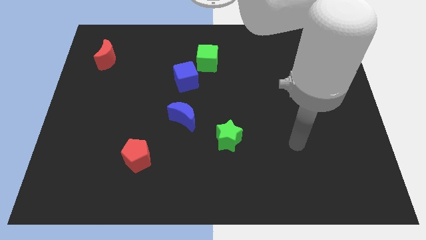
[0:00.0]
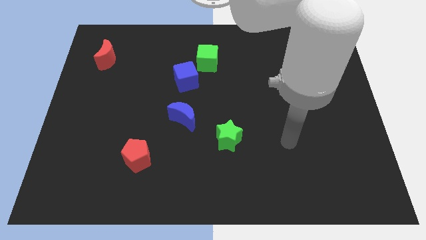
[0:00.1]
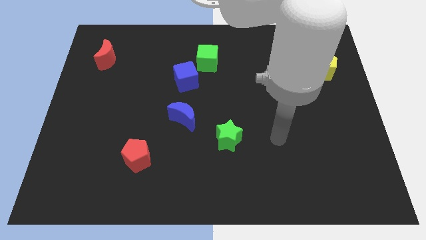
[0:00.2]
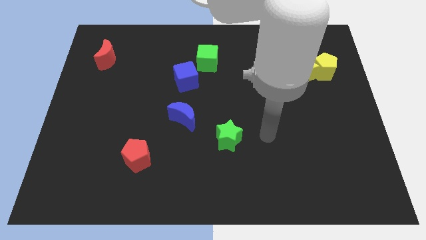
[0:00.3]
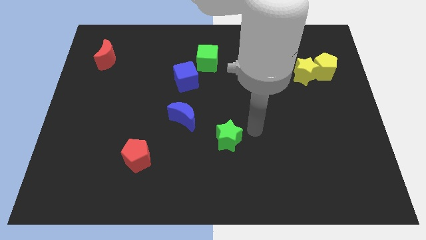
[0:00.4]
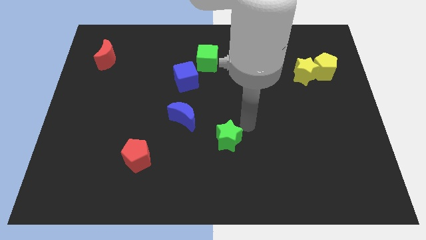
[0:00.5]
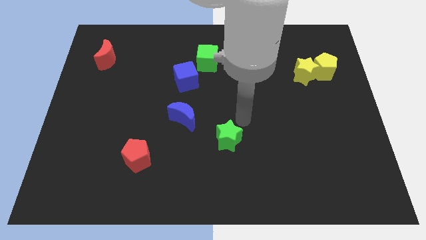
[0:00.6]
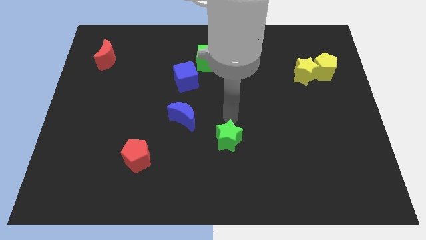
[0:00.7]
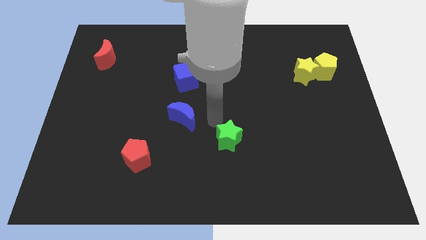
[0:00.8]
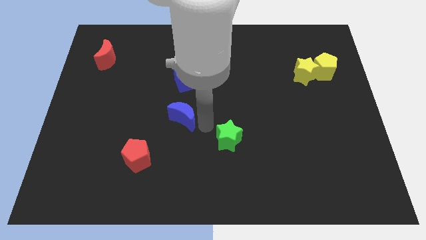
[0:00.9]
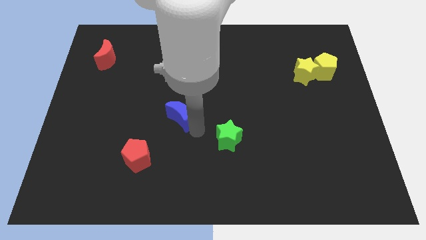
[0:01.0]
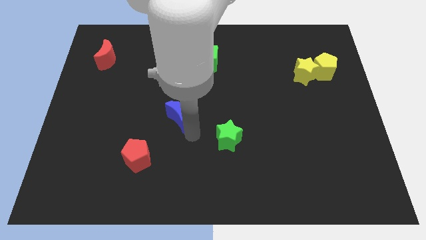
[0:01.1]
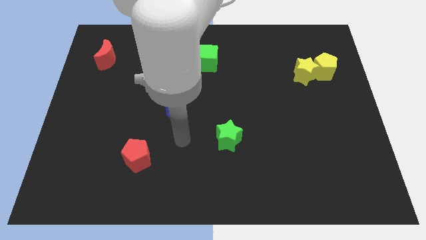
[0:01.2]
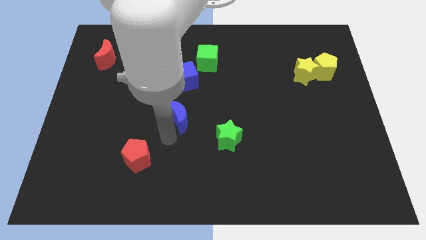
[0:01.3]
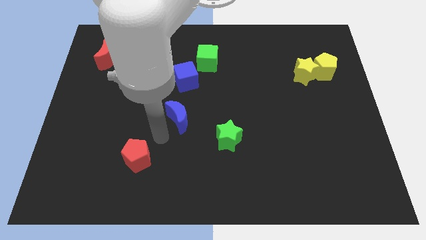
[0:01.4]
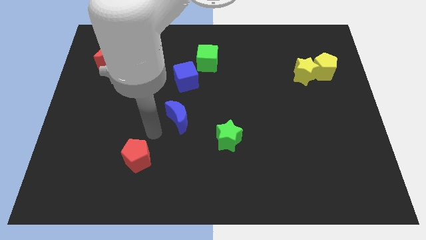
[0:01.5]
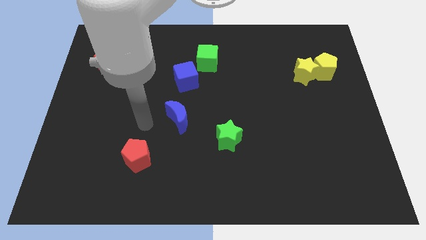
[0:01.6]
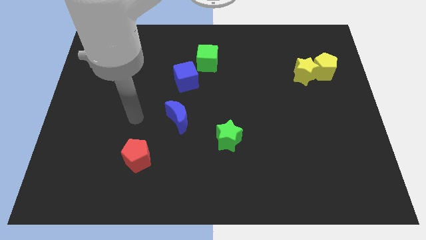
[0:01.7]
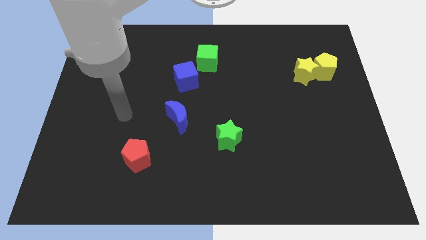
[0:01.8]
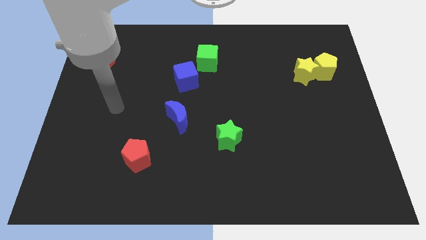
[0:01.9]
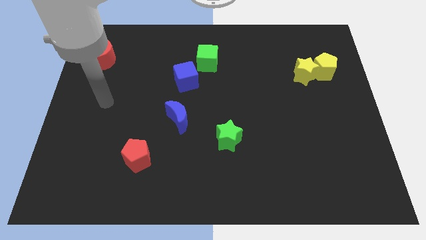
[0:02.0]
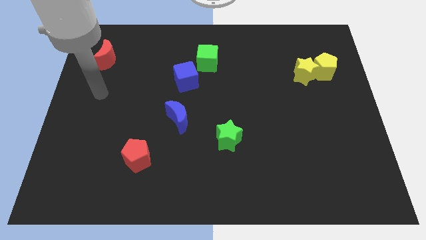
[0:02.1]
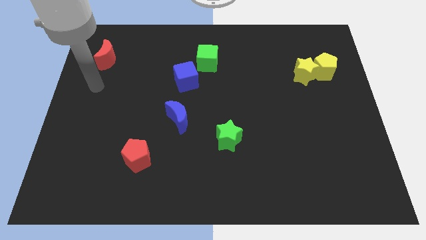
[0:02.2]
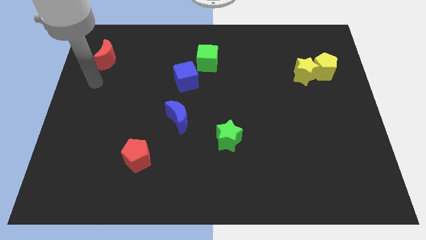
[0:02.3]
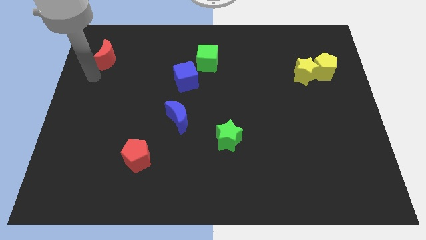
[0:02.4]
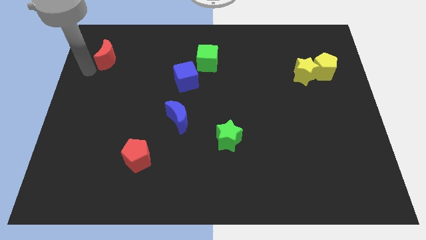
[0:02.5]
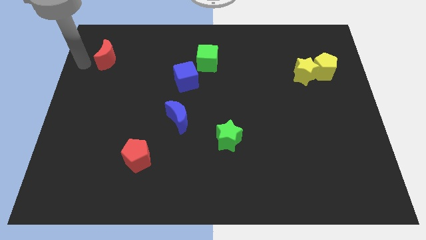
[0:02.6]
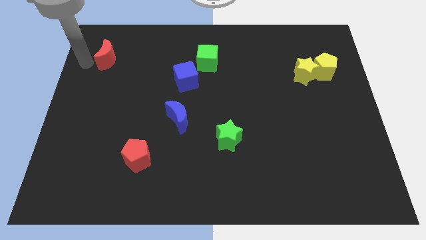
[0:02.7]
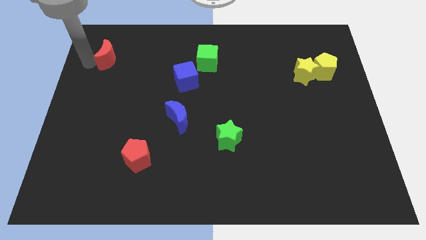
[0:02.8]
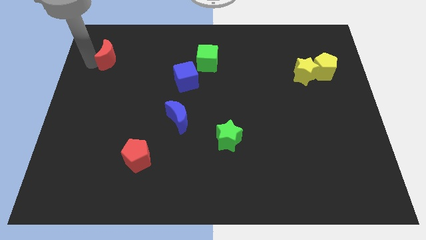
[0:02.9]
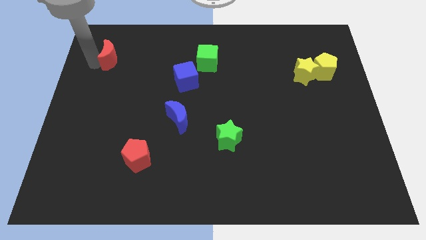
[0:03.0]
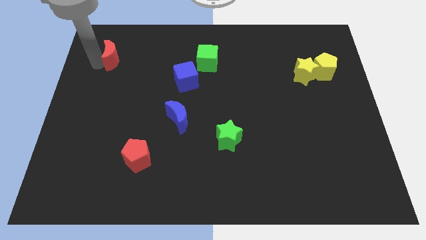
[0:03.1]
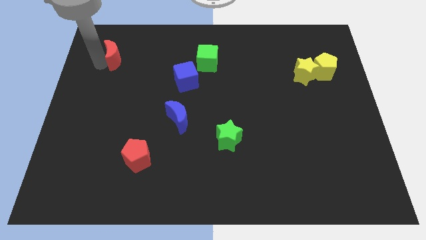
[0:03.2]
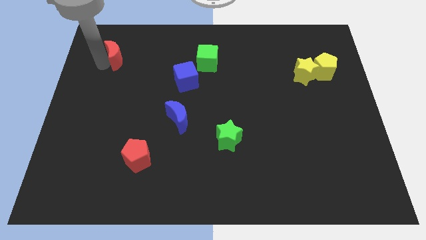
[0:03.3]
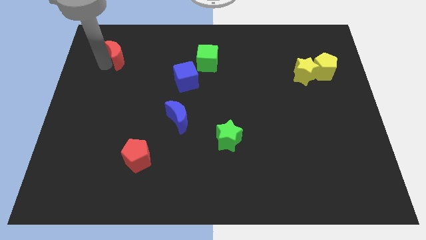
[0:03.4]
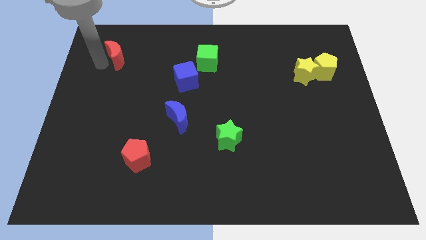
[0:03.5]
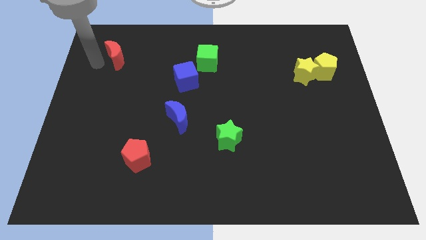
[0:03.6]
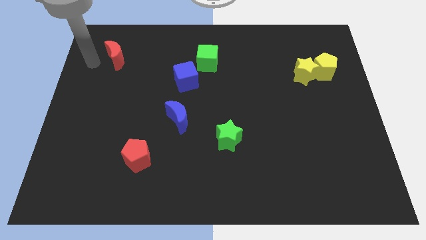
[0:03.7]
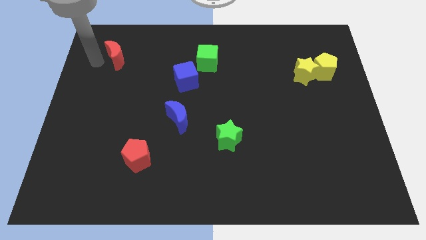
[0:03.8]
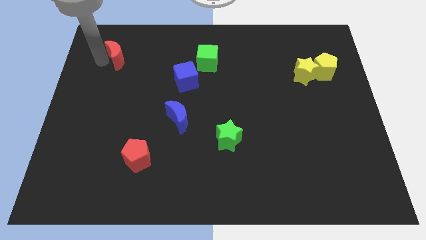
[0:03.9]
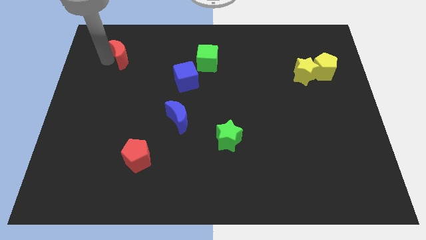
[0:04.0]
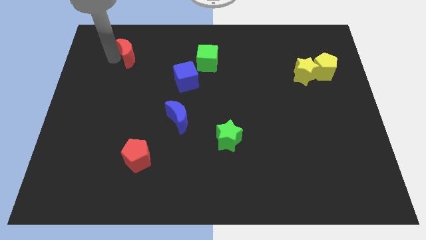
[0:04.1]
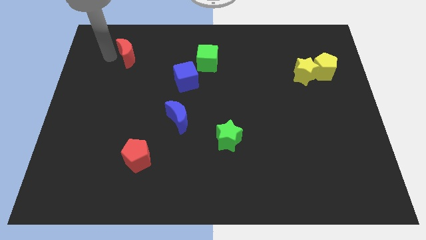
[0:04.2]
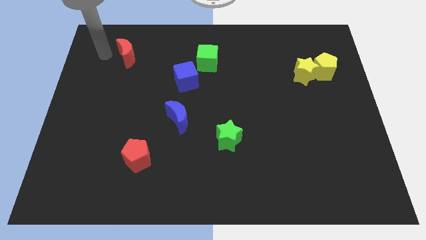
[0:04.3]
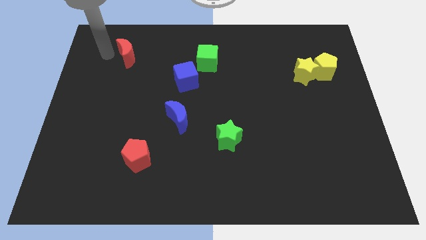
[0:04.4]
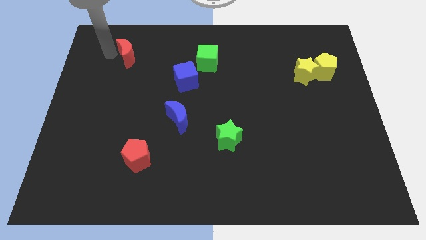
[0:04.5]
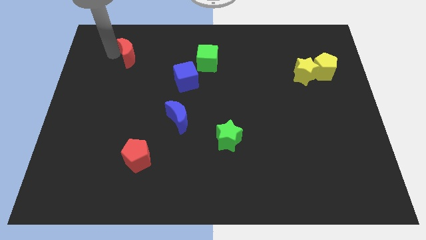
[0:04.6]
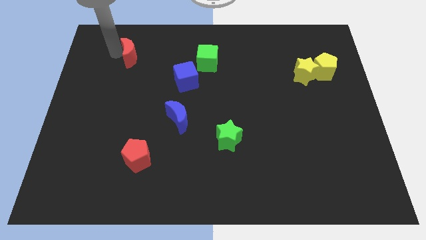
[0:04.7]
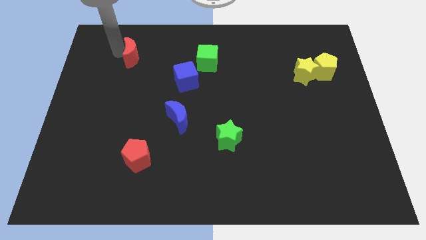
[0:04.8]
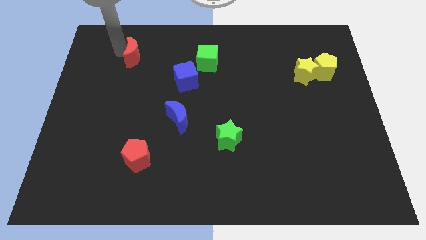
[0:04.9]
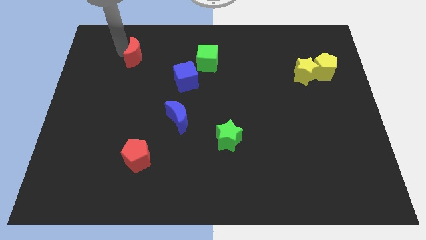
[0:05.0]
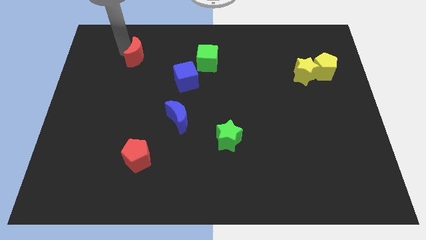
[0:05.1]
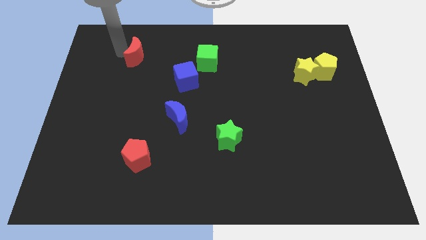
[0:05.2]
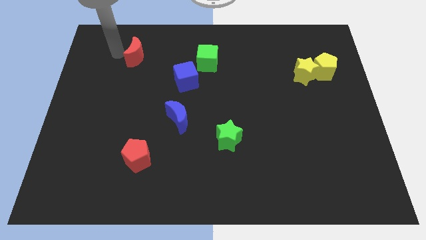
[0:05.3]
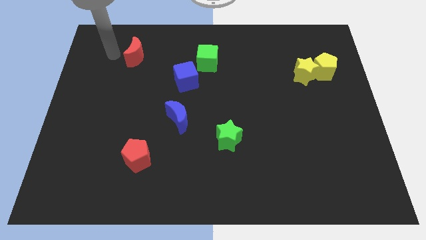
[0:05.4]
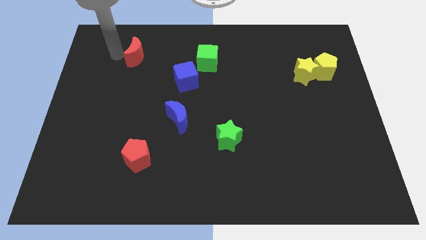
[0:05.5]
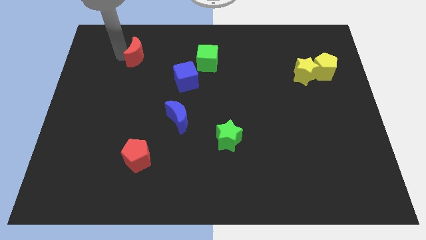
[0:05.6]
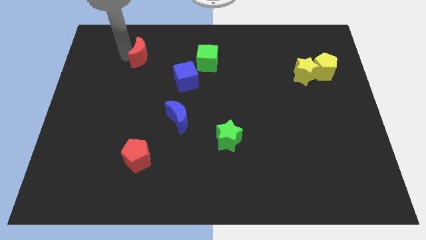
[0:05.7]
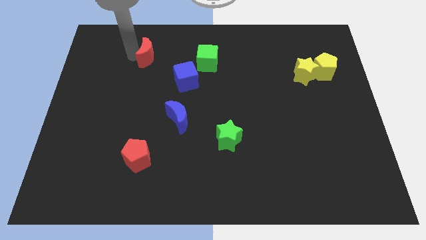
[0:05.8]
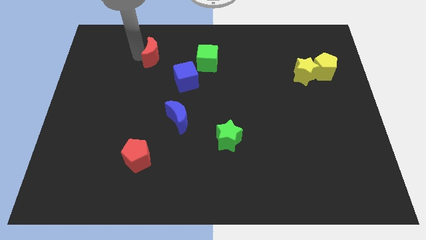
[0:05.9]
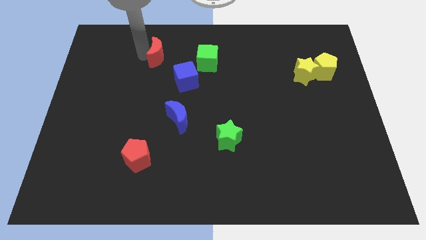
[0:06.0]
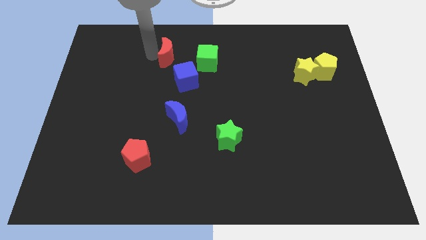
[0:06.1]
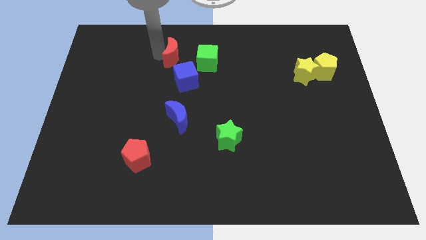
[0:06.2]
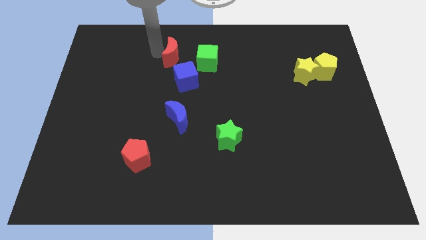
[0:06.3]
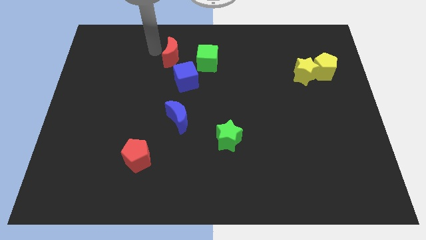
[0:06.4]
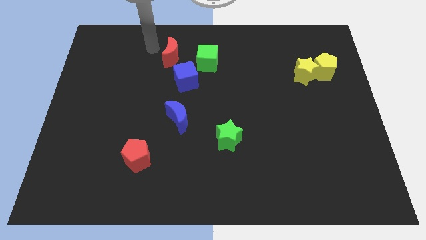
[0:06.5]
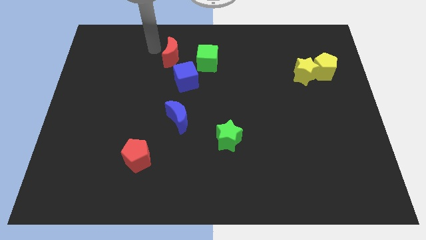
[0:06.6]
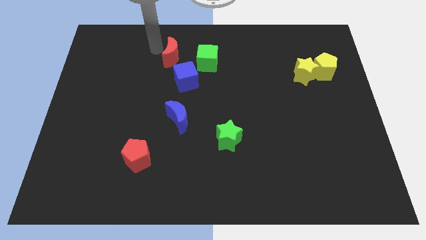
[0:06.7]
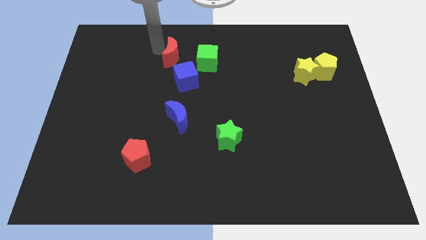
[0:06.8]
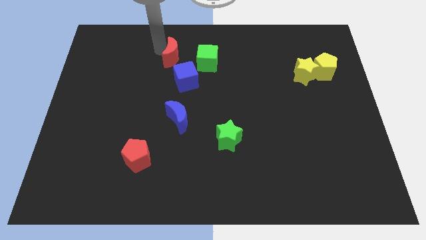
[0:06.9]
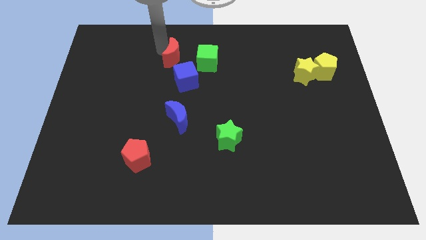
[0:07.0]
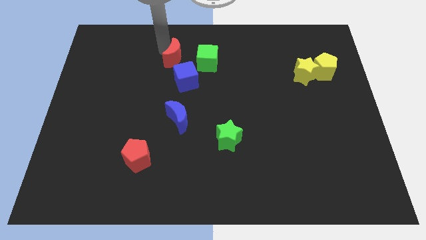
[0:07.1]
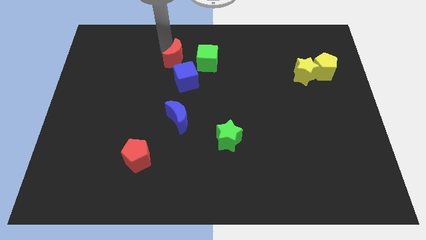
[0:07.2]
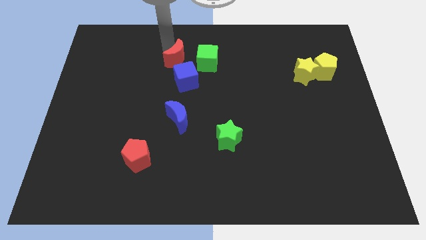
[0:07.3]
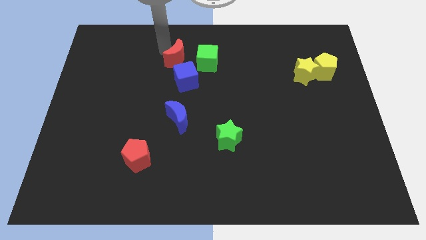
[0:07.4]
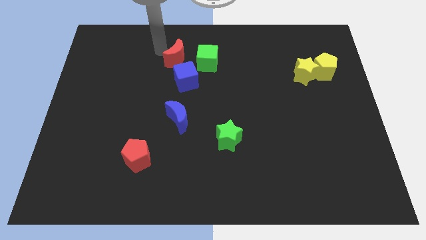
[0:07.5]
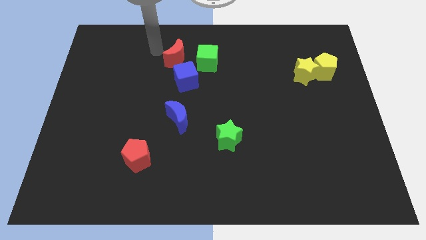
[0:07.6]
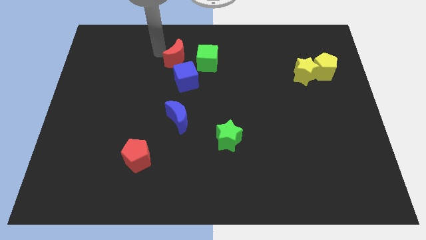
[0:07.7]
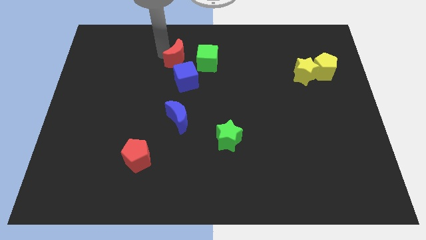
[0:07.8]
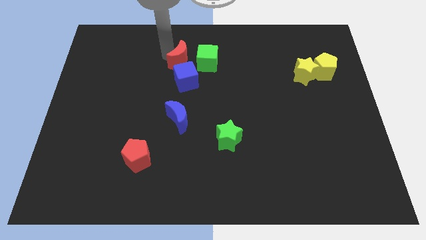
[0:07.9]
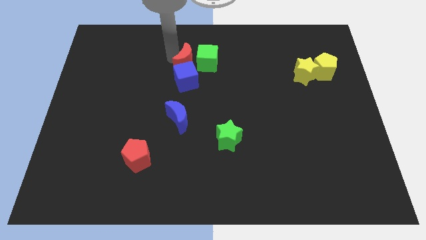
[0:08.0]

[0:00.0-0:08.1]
slide the red moon close to the green cube
